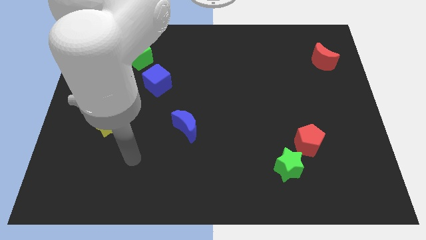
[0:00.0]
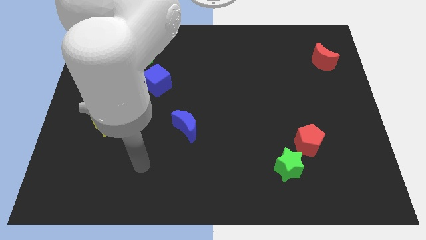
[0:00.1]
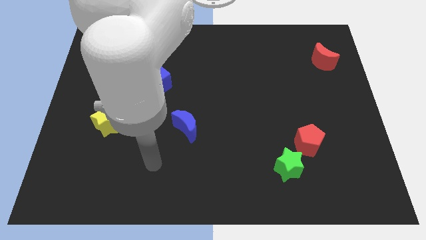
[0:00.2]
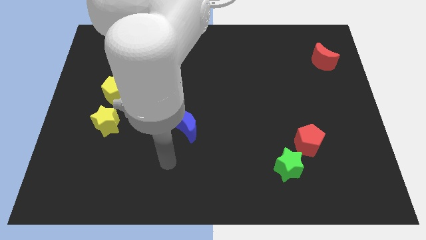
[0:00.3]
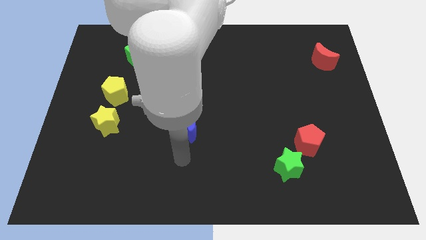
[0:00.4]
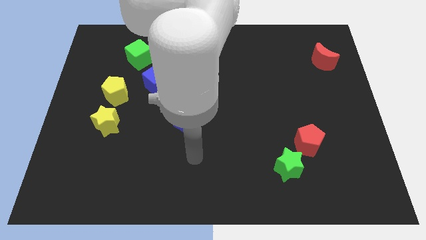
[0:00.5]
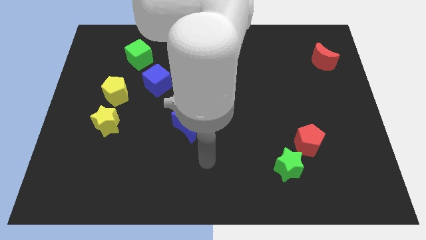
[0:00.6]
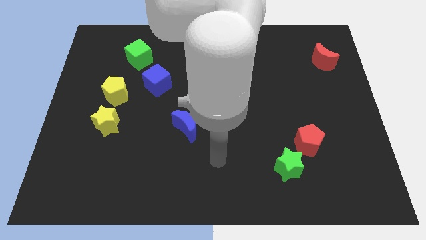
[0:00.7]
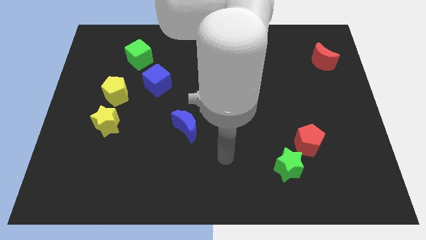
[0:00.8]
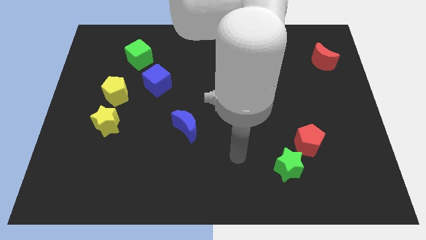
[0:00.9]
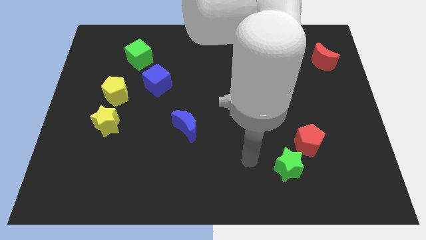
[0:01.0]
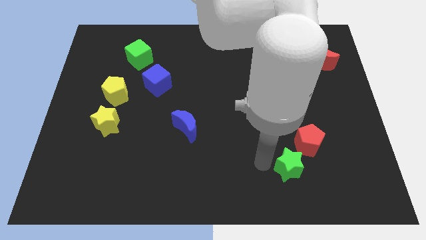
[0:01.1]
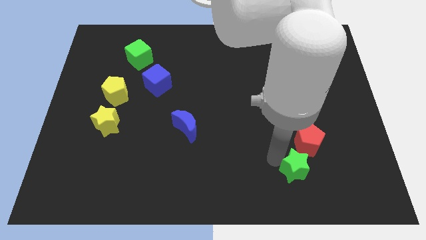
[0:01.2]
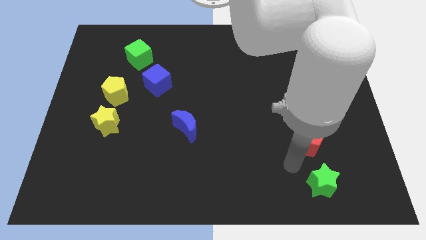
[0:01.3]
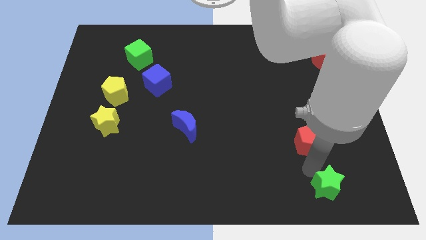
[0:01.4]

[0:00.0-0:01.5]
move the red pentagon away from the green star

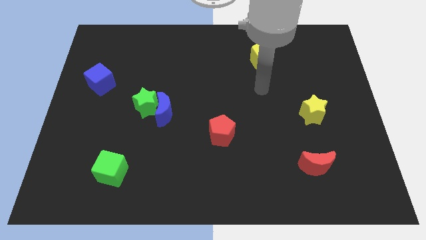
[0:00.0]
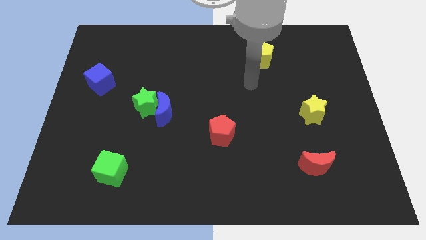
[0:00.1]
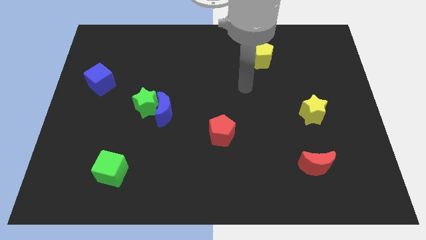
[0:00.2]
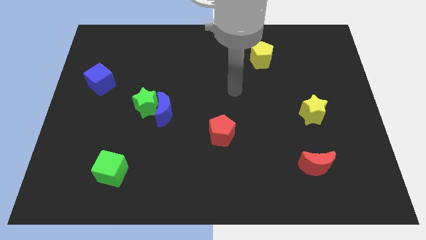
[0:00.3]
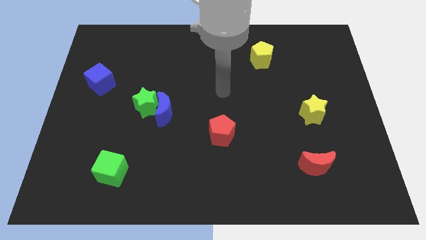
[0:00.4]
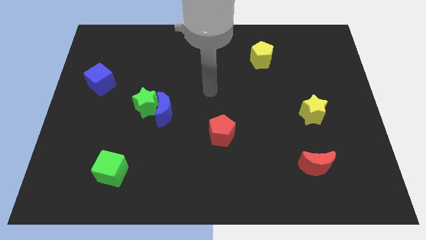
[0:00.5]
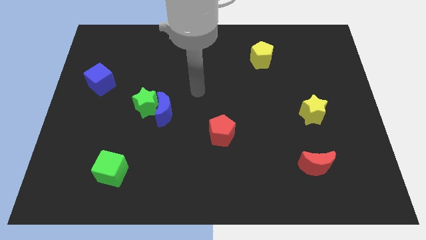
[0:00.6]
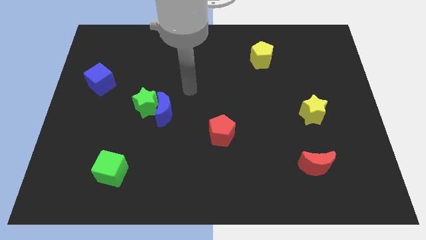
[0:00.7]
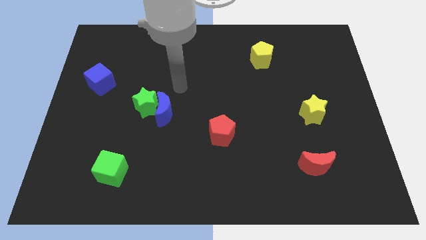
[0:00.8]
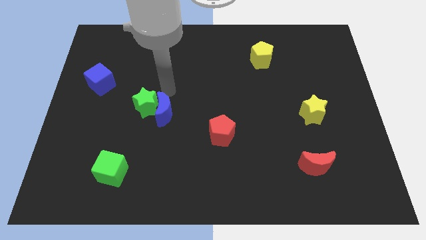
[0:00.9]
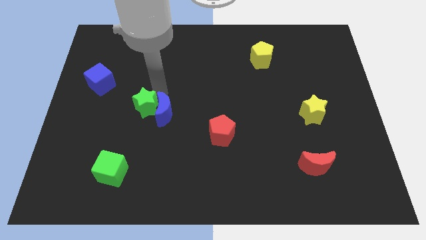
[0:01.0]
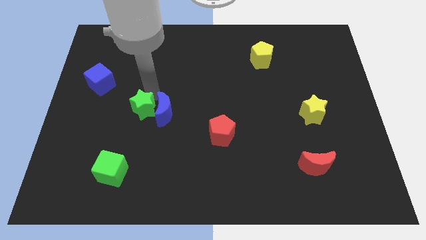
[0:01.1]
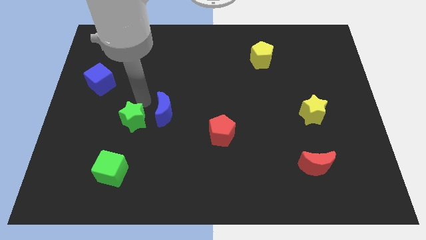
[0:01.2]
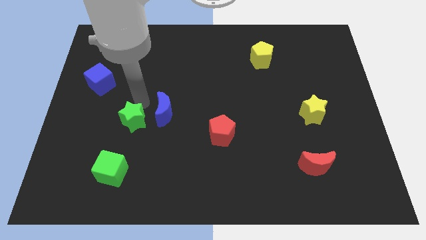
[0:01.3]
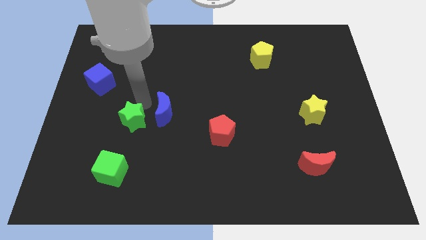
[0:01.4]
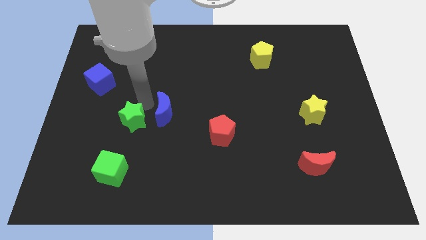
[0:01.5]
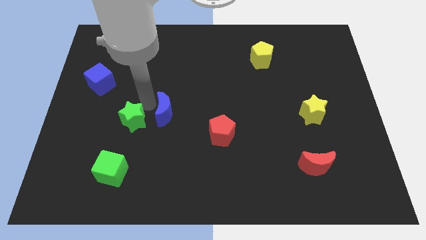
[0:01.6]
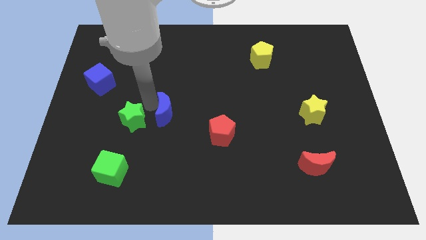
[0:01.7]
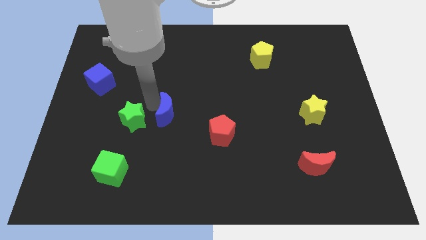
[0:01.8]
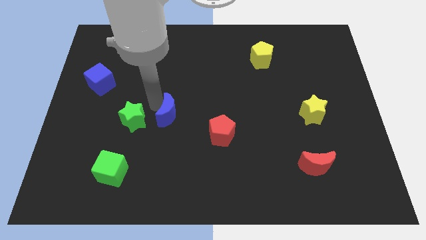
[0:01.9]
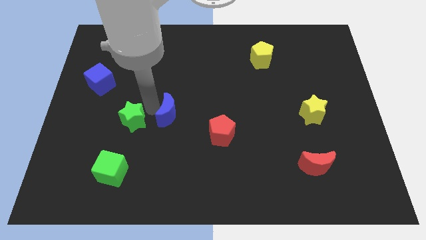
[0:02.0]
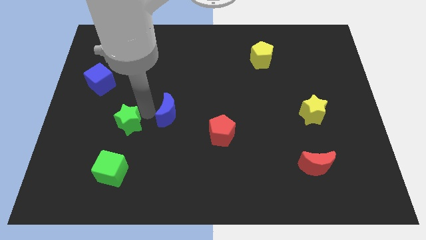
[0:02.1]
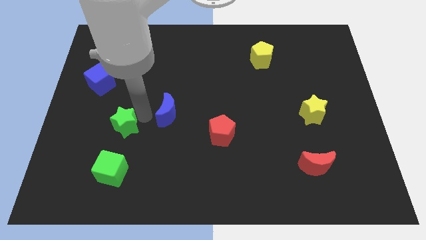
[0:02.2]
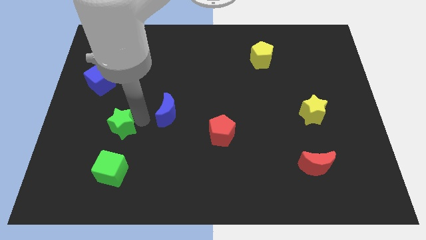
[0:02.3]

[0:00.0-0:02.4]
move the blue moon away from the green star

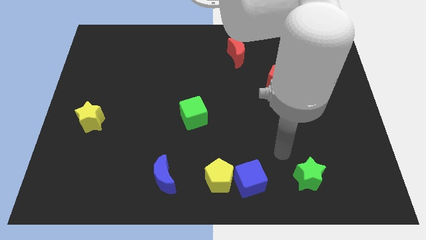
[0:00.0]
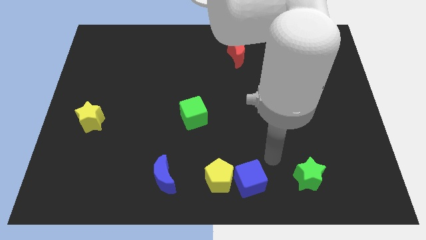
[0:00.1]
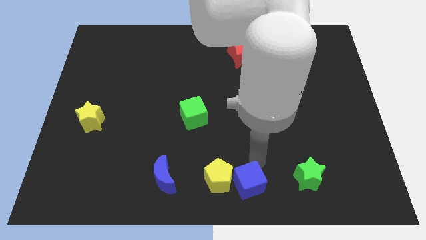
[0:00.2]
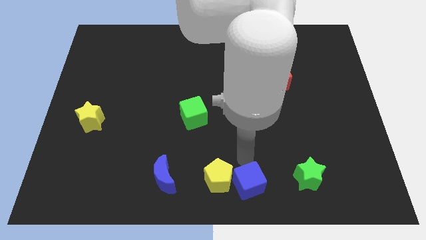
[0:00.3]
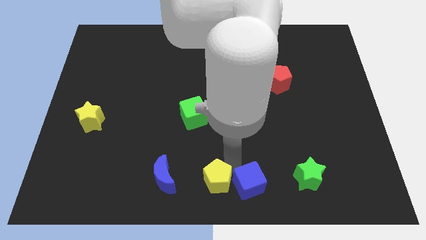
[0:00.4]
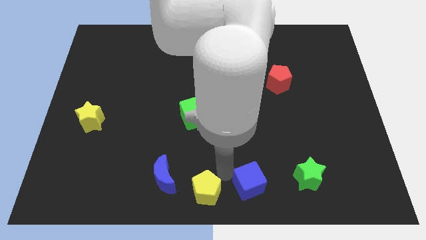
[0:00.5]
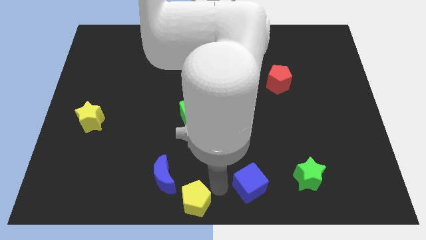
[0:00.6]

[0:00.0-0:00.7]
pull the blue cube apart from the yellow pentagon

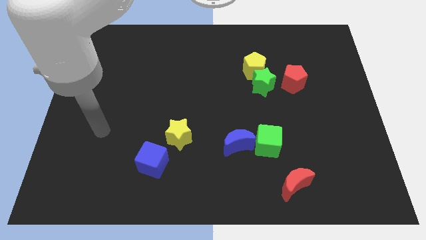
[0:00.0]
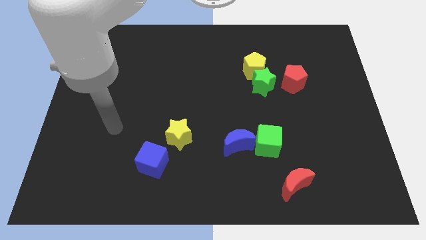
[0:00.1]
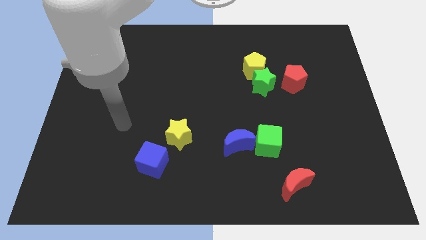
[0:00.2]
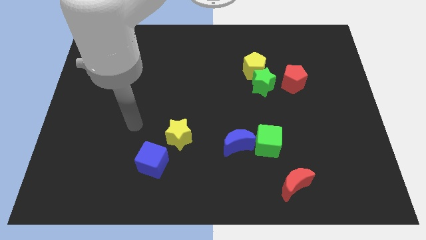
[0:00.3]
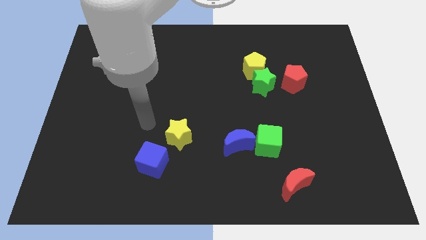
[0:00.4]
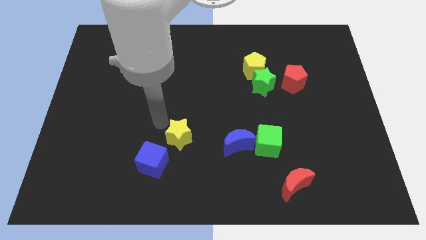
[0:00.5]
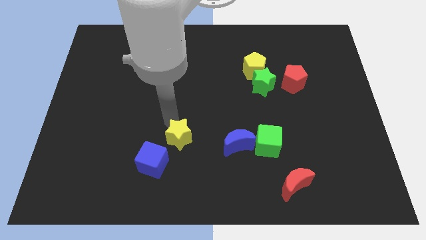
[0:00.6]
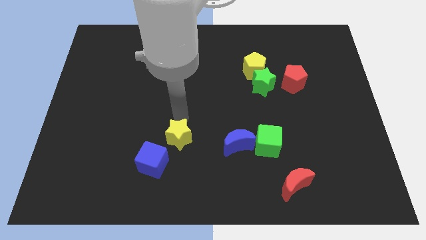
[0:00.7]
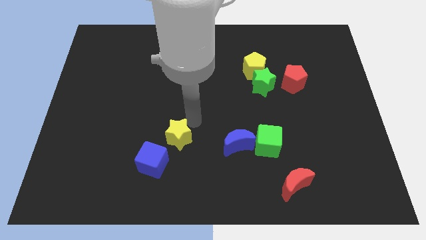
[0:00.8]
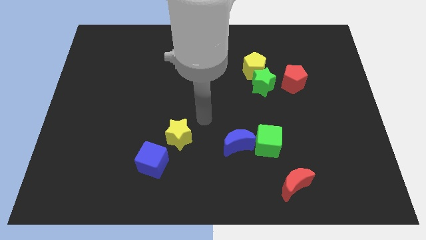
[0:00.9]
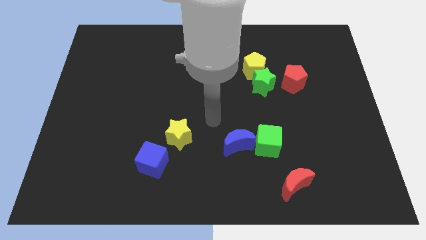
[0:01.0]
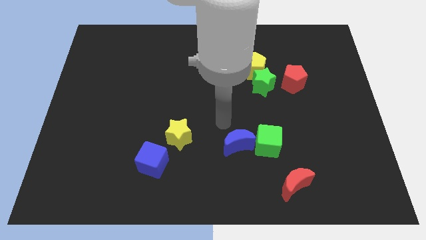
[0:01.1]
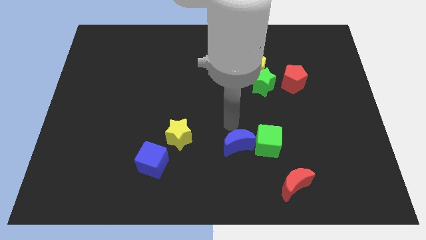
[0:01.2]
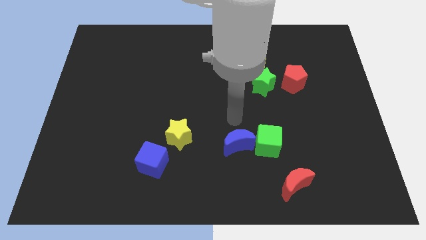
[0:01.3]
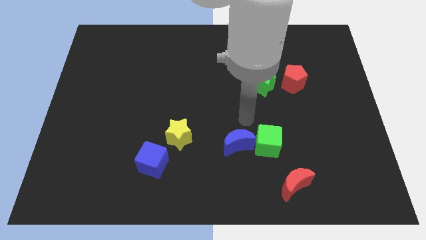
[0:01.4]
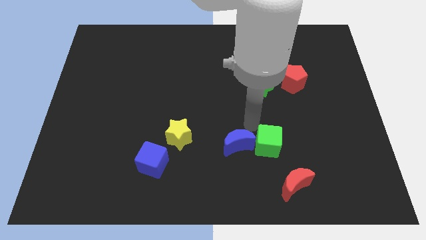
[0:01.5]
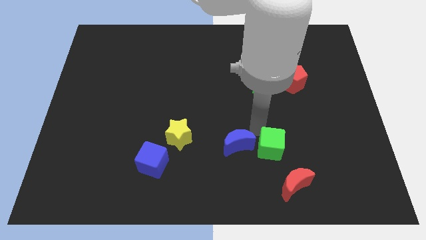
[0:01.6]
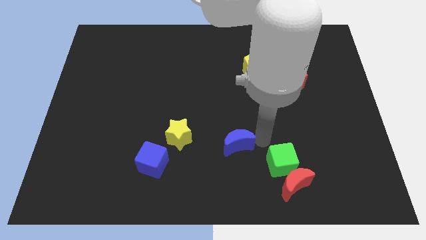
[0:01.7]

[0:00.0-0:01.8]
separate the blue moon from the green cube

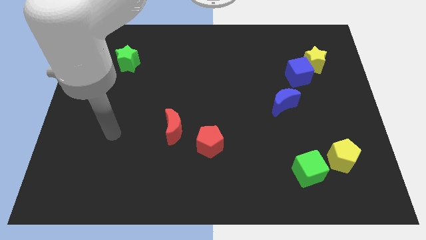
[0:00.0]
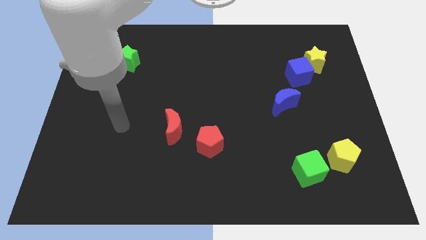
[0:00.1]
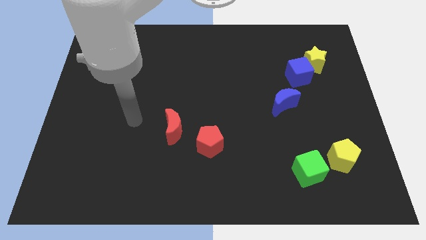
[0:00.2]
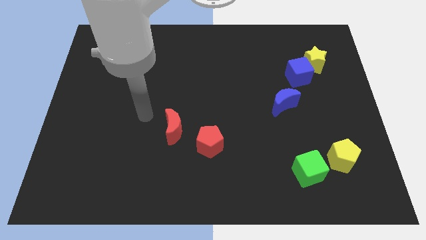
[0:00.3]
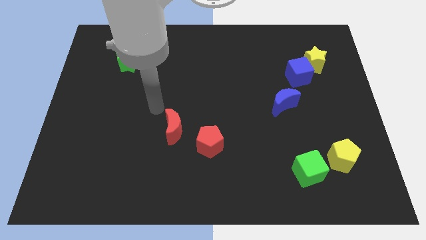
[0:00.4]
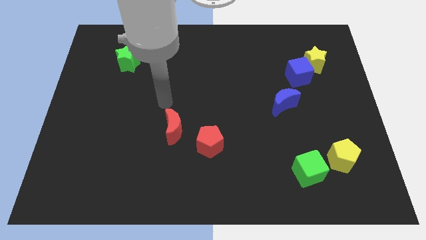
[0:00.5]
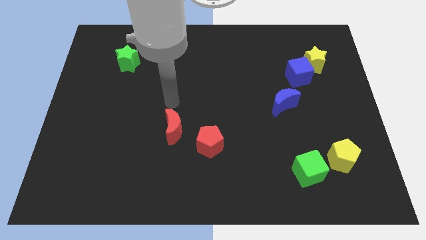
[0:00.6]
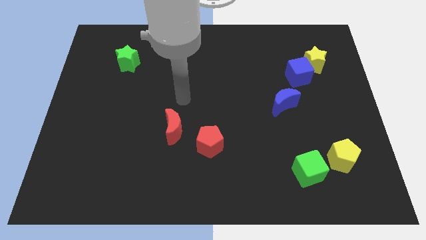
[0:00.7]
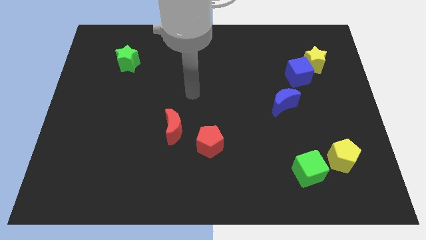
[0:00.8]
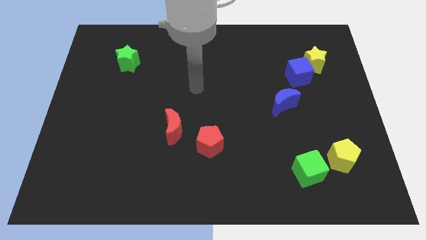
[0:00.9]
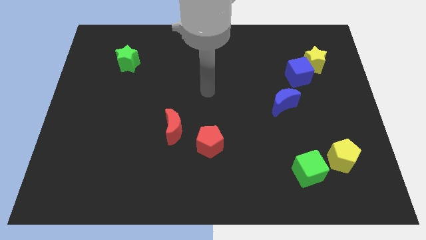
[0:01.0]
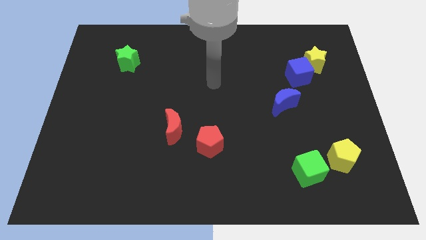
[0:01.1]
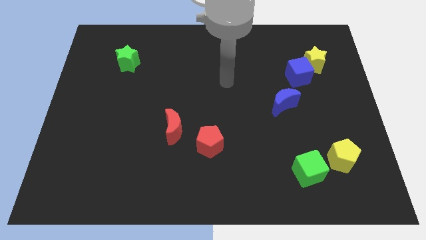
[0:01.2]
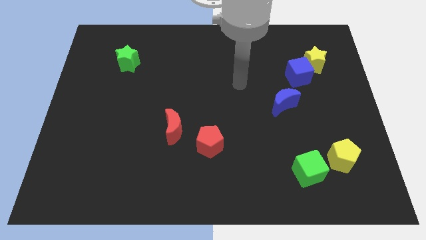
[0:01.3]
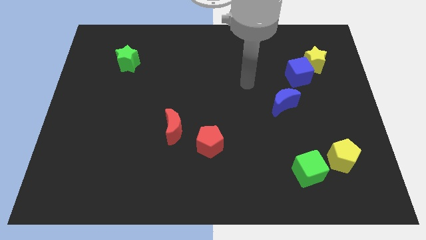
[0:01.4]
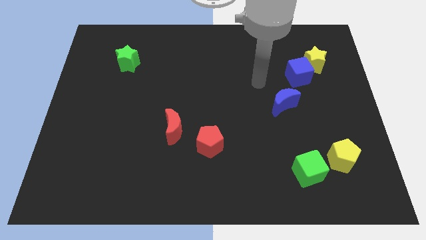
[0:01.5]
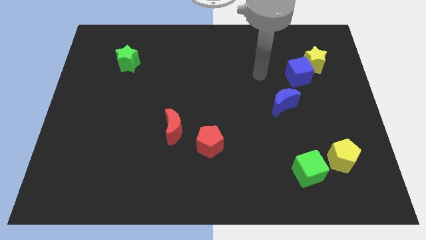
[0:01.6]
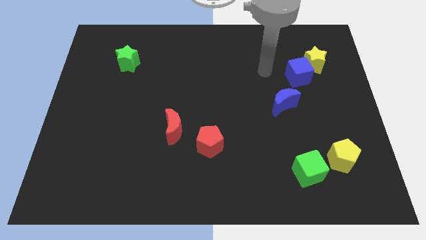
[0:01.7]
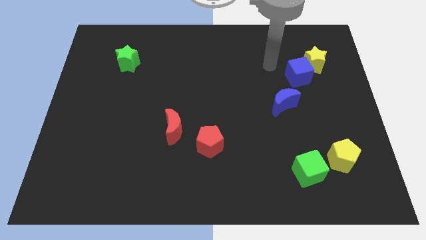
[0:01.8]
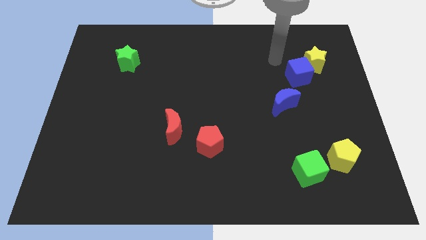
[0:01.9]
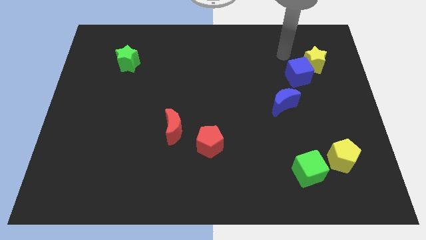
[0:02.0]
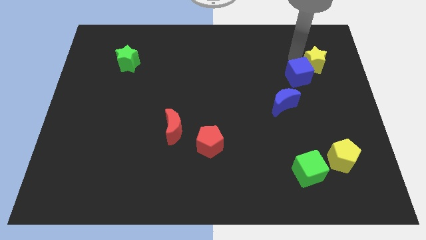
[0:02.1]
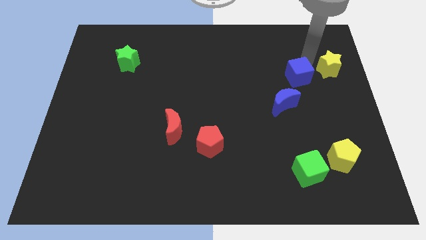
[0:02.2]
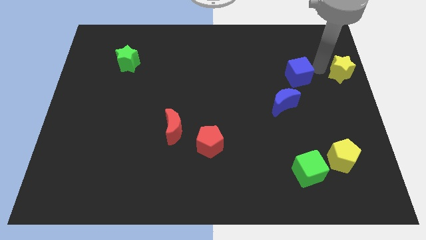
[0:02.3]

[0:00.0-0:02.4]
move the blue cube away from the yellow star

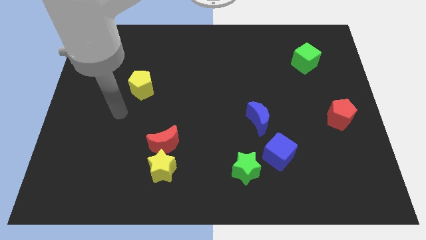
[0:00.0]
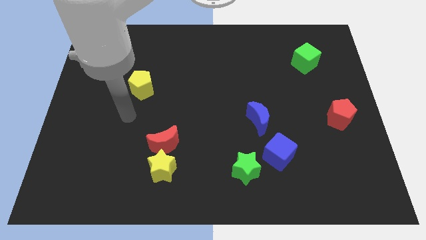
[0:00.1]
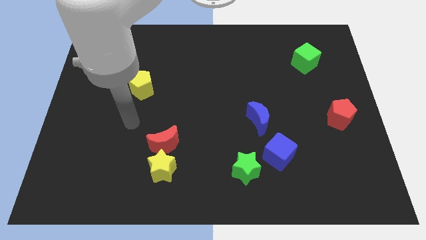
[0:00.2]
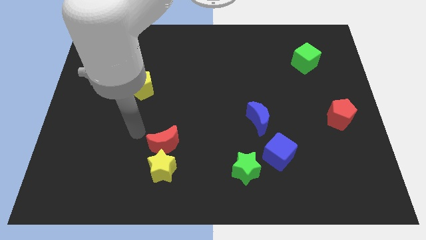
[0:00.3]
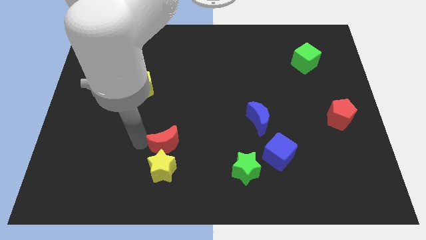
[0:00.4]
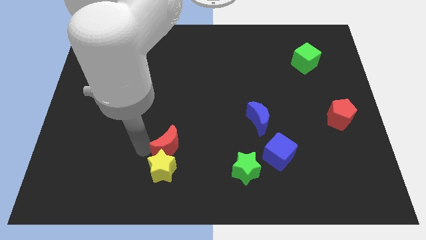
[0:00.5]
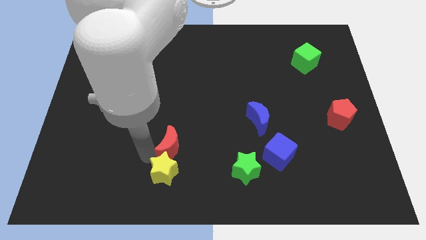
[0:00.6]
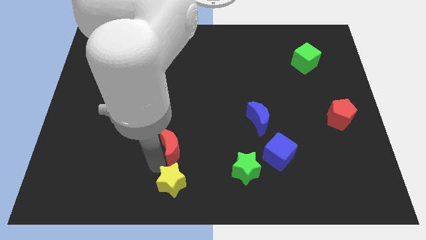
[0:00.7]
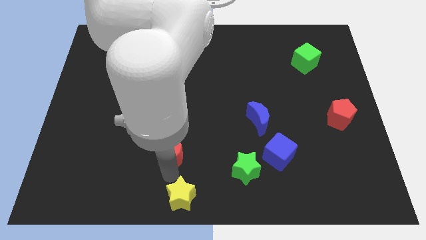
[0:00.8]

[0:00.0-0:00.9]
separate the red moon from the yellow star
